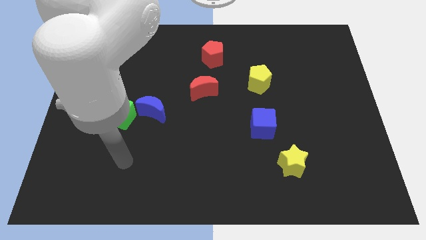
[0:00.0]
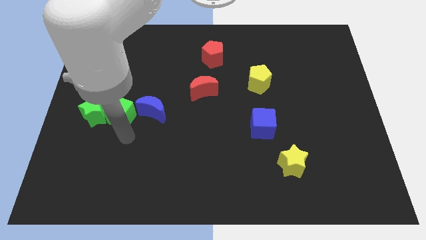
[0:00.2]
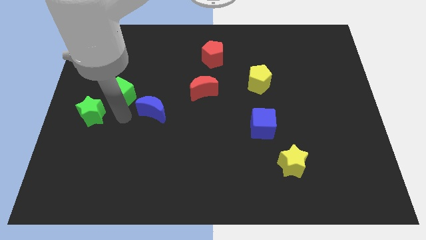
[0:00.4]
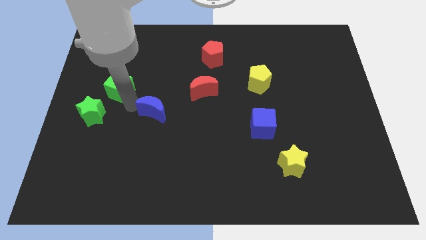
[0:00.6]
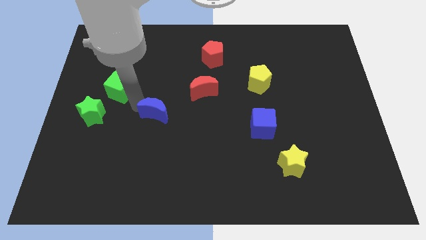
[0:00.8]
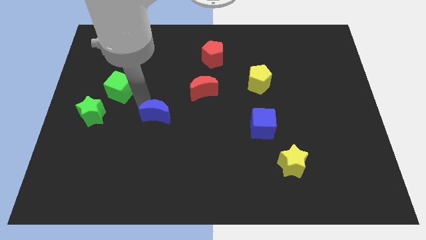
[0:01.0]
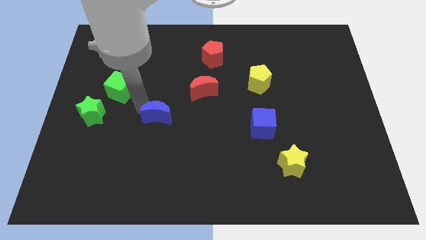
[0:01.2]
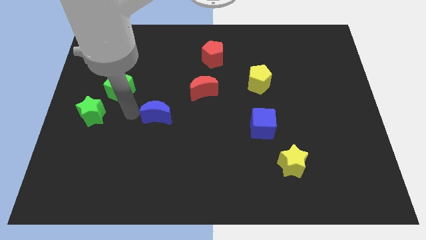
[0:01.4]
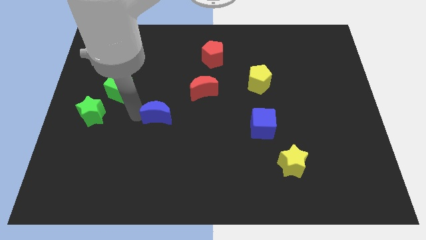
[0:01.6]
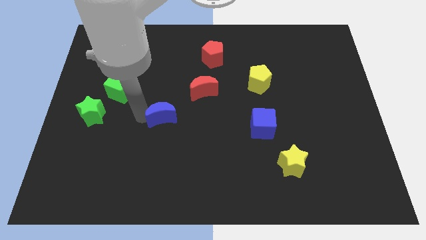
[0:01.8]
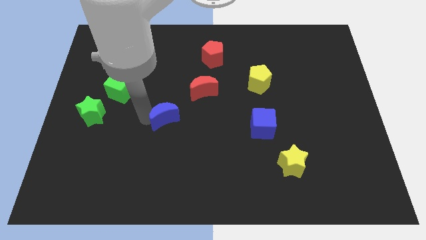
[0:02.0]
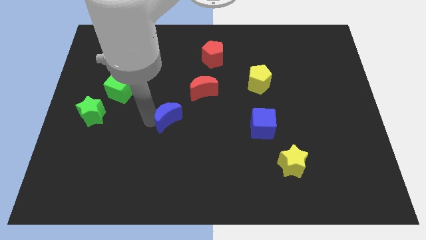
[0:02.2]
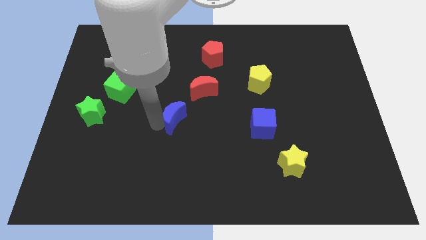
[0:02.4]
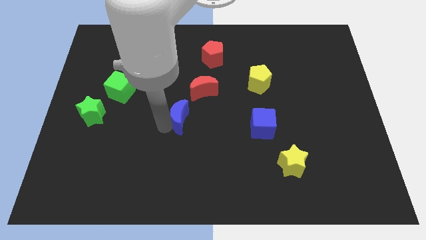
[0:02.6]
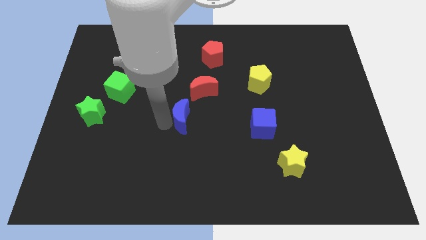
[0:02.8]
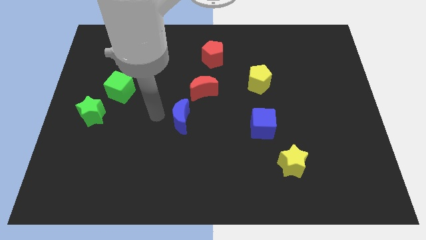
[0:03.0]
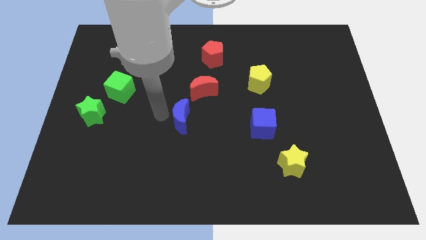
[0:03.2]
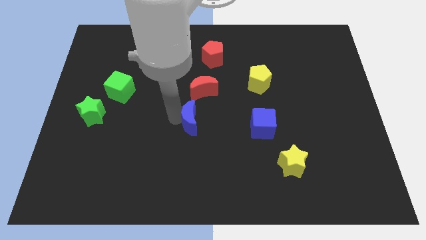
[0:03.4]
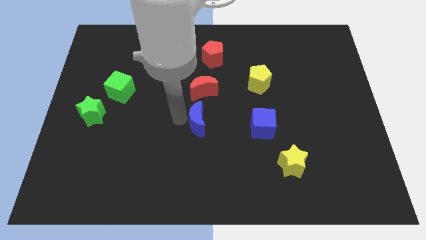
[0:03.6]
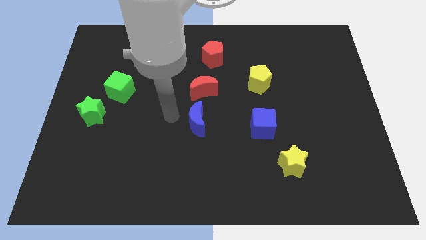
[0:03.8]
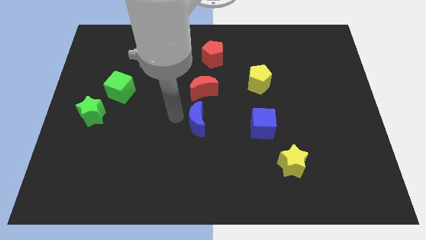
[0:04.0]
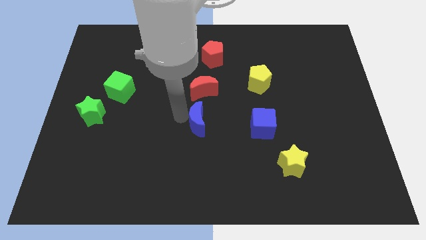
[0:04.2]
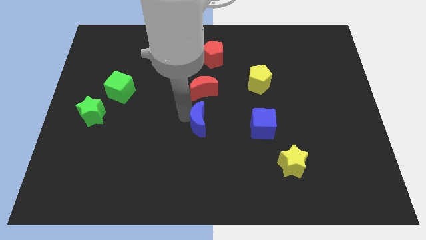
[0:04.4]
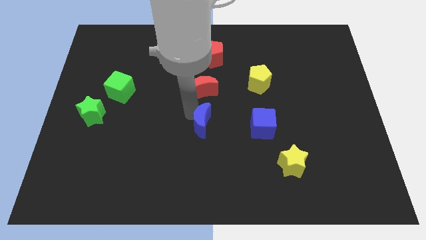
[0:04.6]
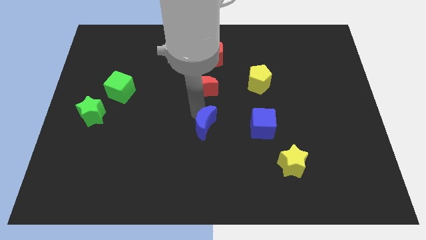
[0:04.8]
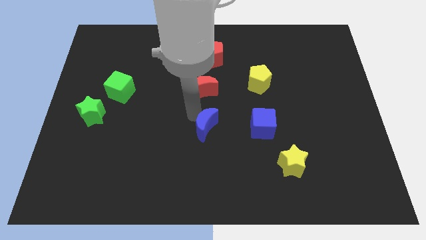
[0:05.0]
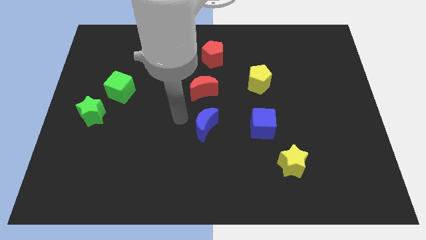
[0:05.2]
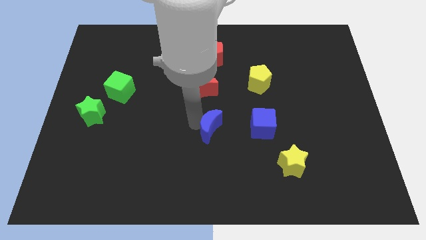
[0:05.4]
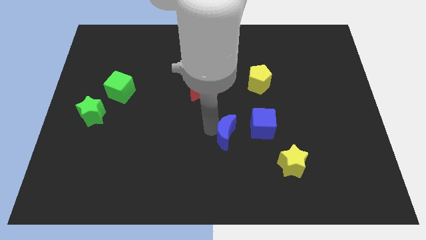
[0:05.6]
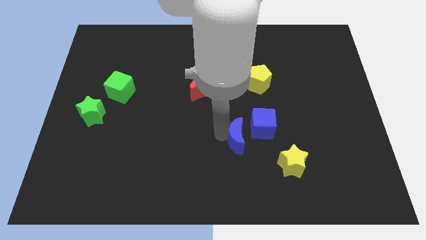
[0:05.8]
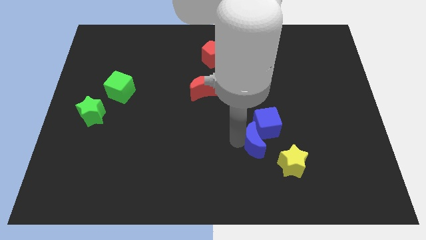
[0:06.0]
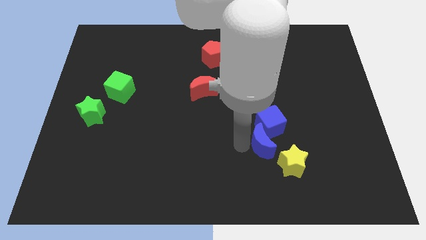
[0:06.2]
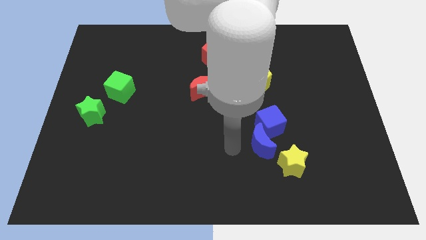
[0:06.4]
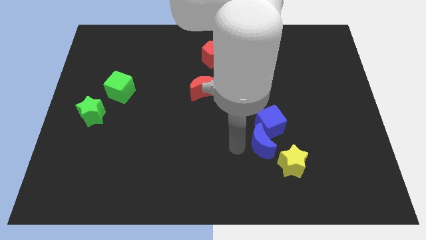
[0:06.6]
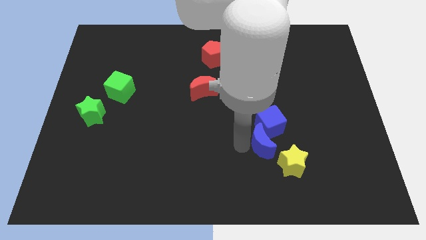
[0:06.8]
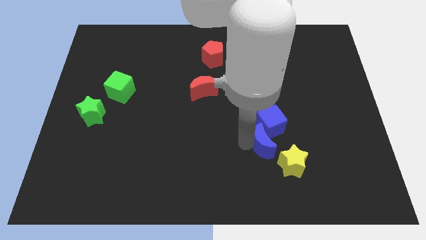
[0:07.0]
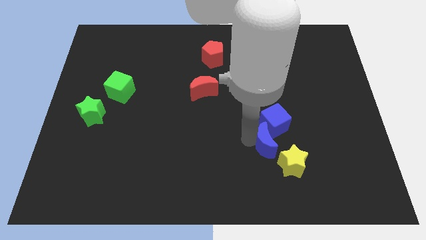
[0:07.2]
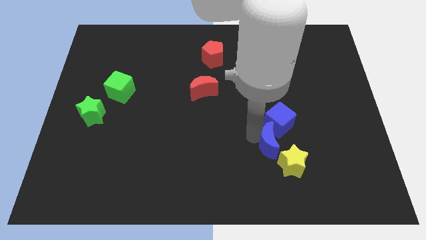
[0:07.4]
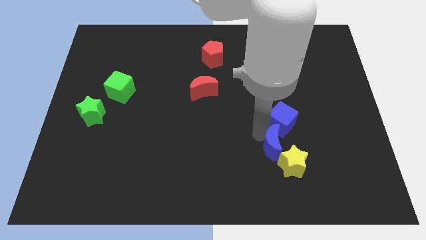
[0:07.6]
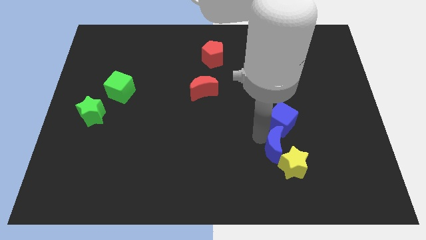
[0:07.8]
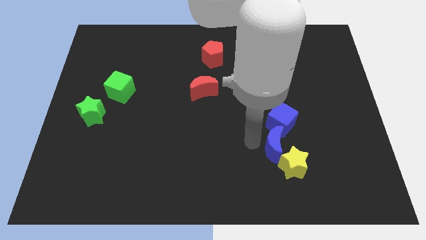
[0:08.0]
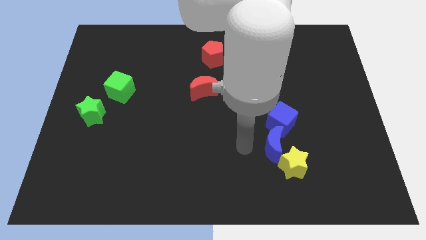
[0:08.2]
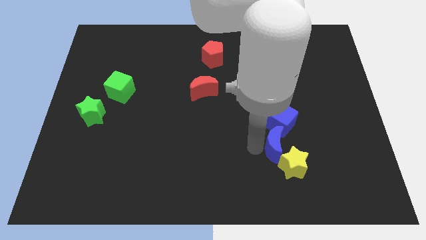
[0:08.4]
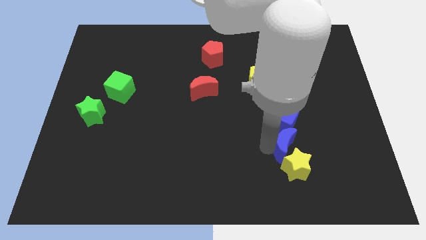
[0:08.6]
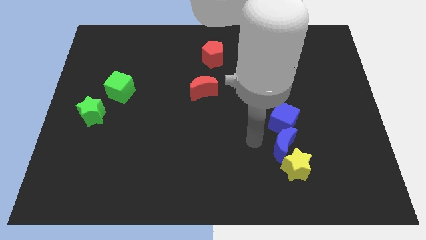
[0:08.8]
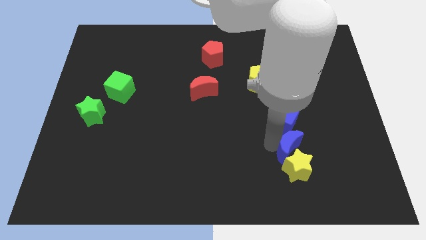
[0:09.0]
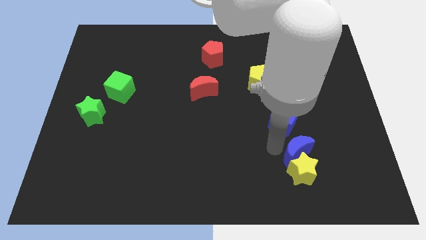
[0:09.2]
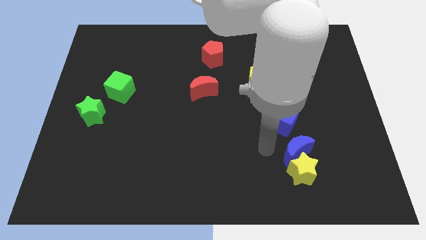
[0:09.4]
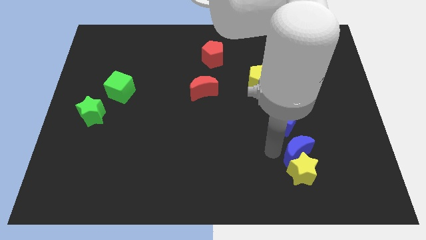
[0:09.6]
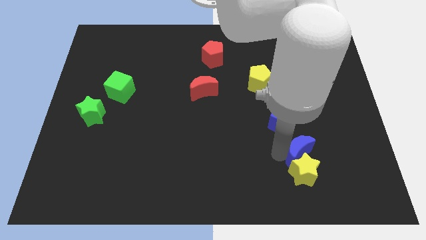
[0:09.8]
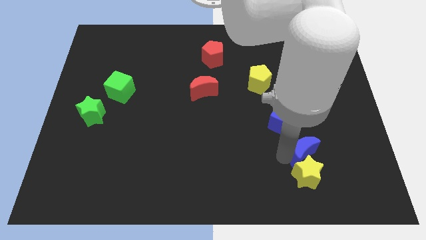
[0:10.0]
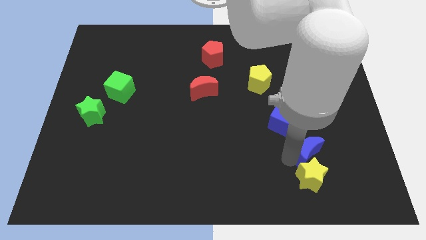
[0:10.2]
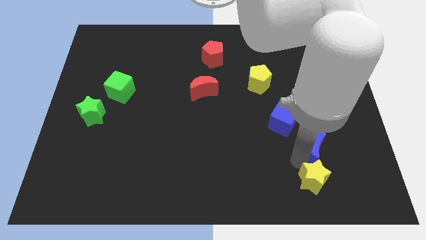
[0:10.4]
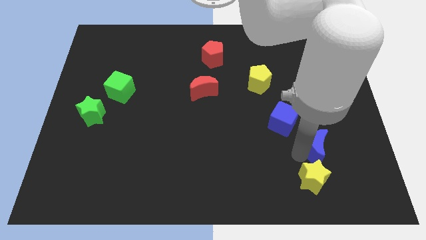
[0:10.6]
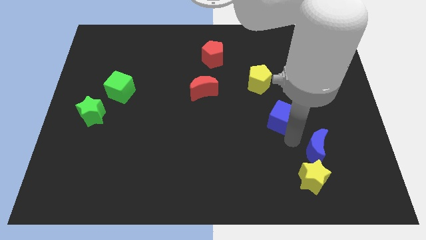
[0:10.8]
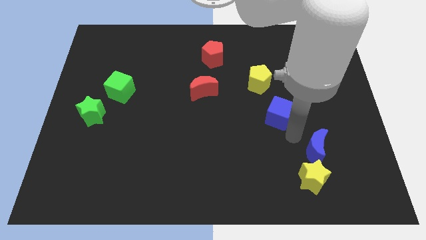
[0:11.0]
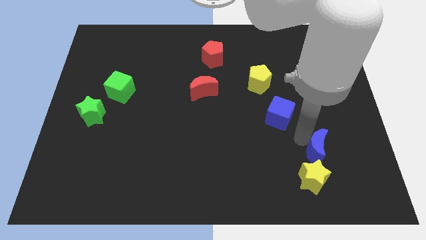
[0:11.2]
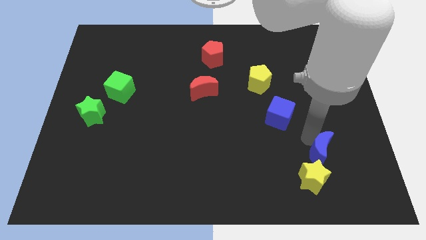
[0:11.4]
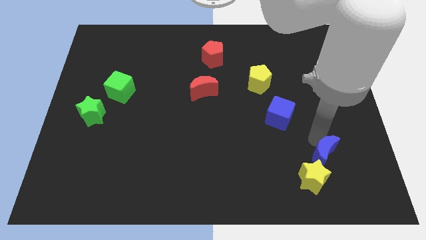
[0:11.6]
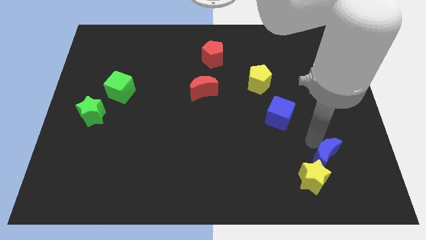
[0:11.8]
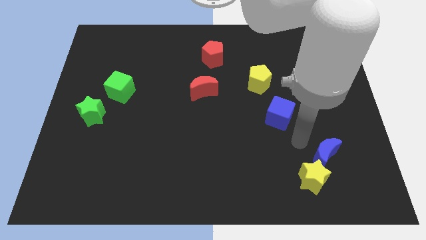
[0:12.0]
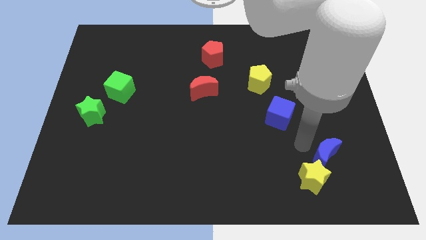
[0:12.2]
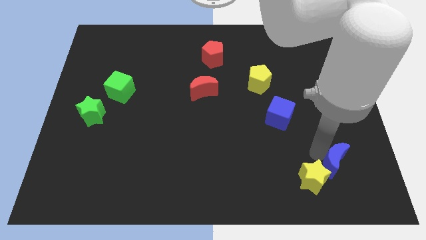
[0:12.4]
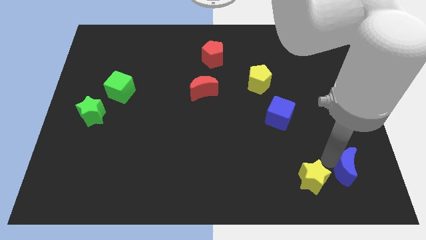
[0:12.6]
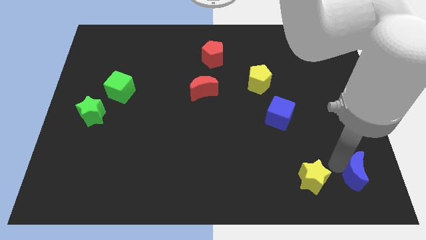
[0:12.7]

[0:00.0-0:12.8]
put the blue moon to the bottom right of the board
